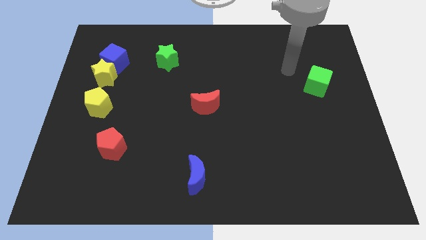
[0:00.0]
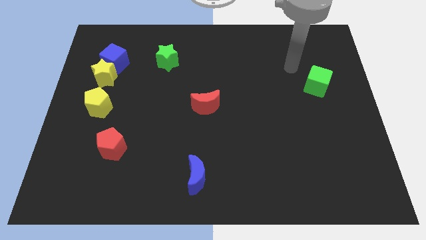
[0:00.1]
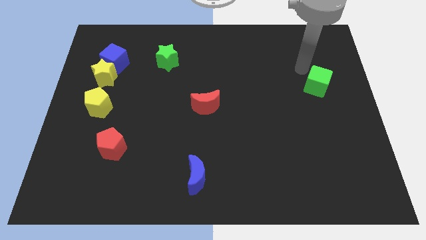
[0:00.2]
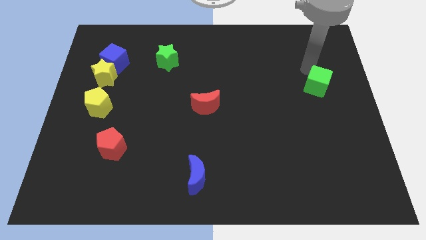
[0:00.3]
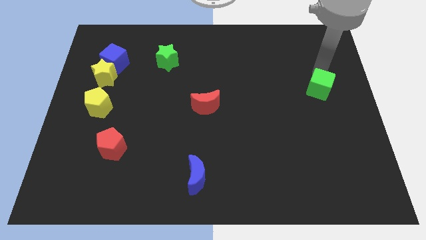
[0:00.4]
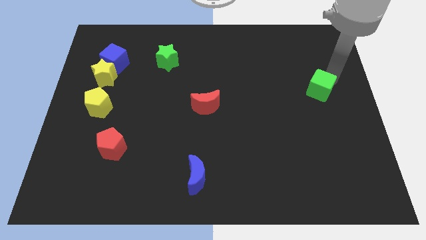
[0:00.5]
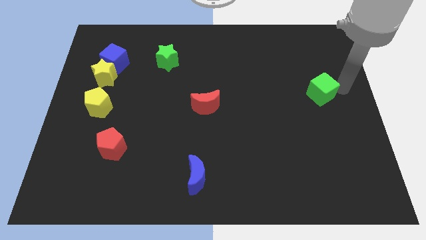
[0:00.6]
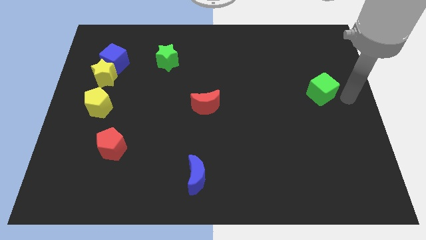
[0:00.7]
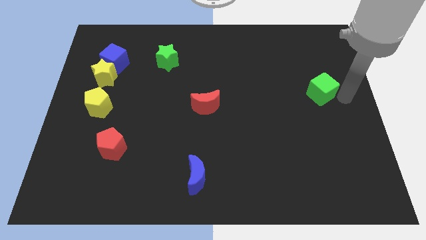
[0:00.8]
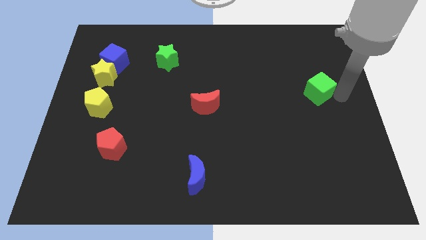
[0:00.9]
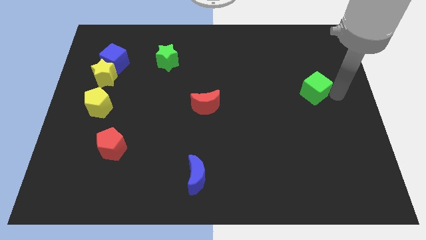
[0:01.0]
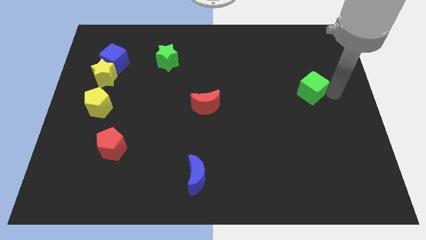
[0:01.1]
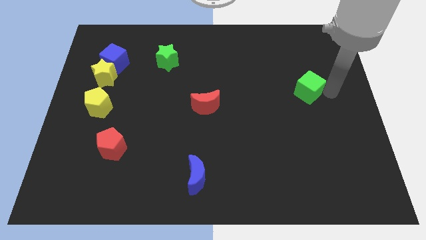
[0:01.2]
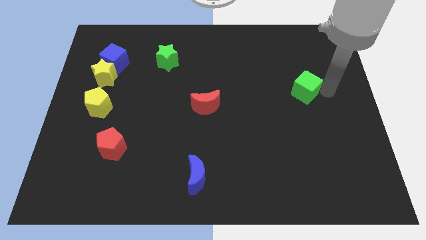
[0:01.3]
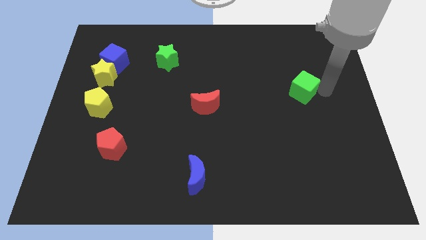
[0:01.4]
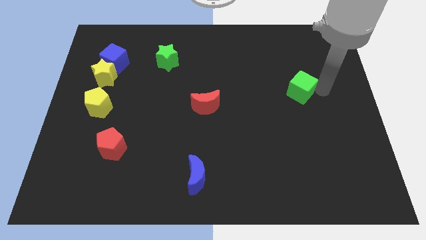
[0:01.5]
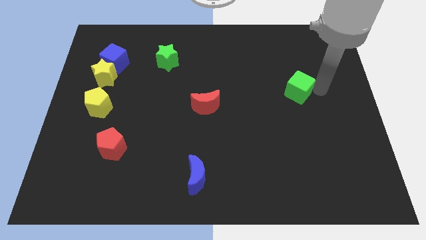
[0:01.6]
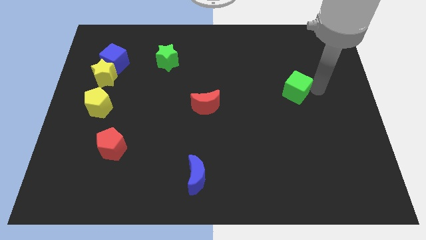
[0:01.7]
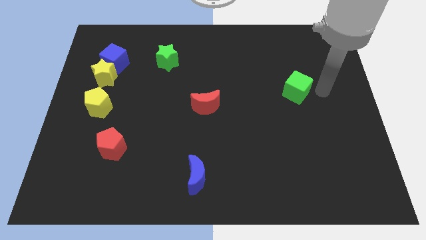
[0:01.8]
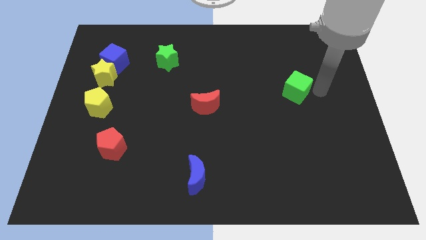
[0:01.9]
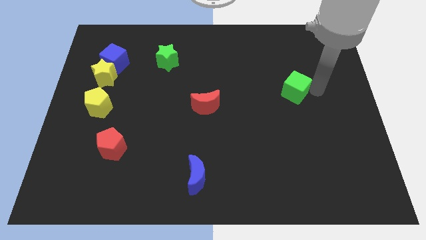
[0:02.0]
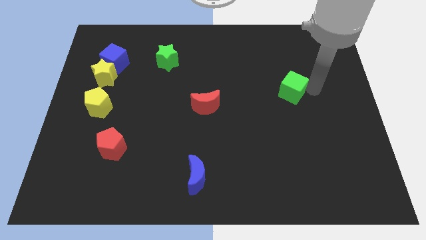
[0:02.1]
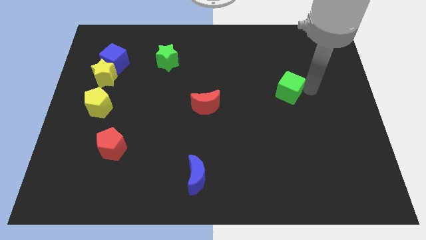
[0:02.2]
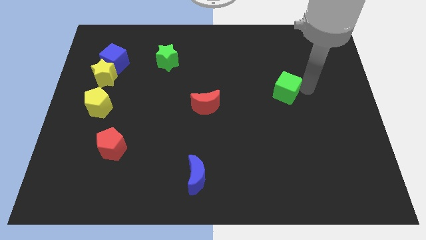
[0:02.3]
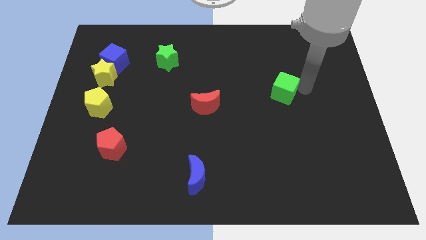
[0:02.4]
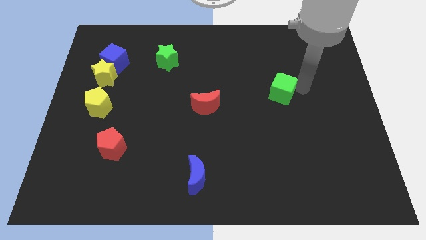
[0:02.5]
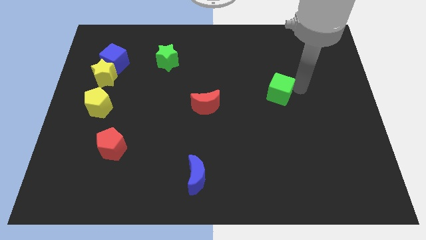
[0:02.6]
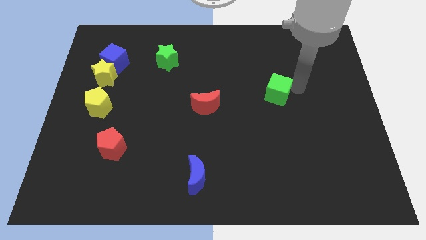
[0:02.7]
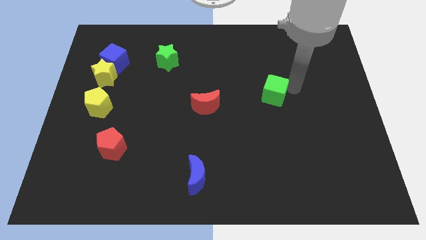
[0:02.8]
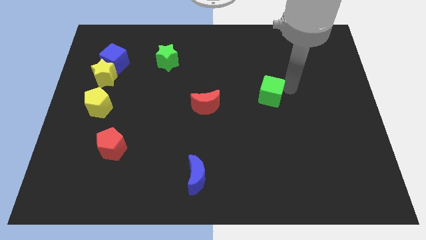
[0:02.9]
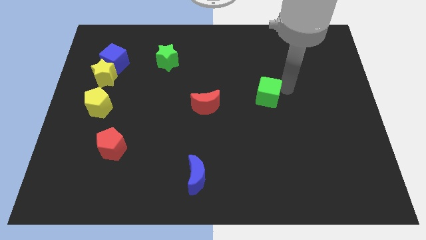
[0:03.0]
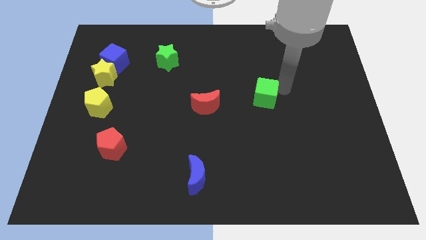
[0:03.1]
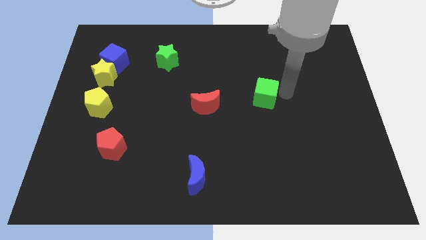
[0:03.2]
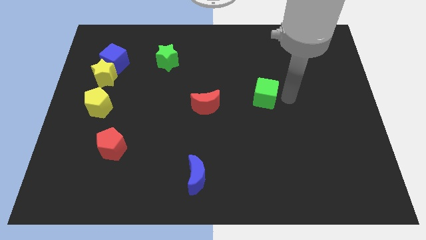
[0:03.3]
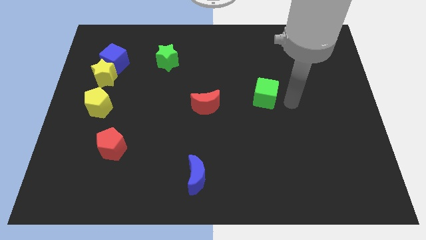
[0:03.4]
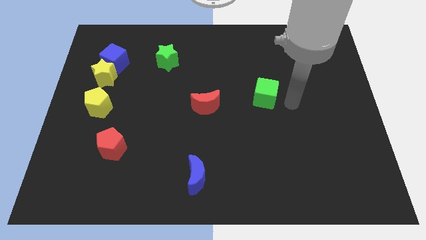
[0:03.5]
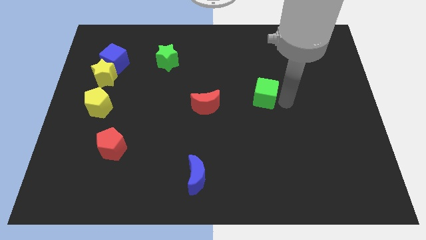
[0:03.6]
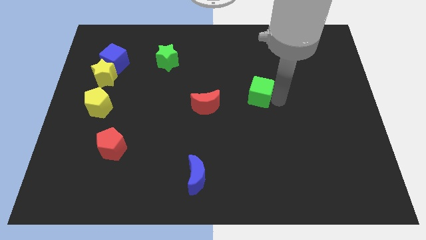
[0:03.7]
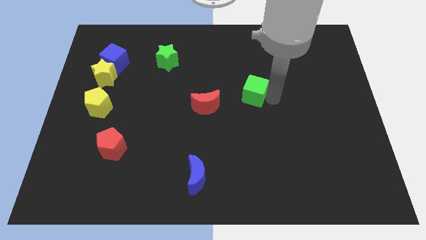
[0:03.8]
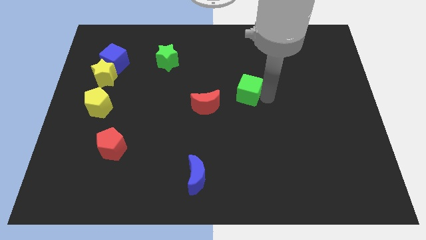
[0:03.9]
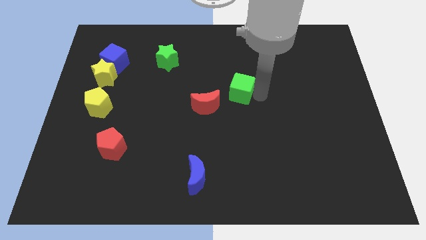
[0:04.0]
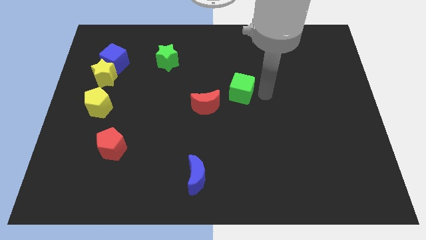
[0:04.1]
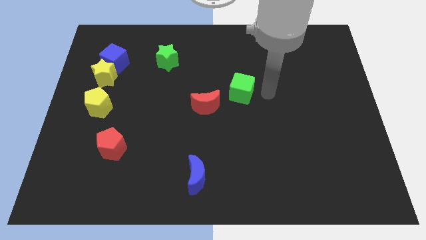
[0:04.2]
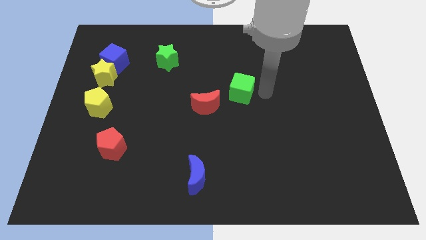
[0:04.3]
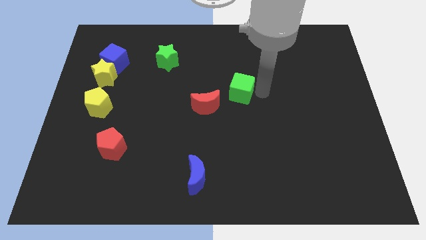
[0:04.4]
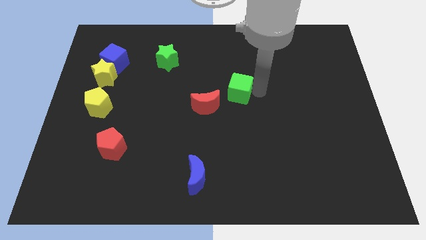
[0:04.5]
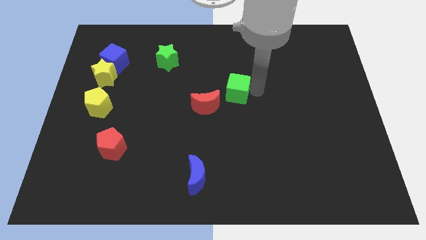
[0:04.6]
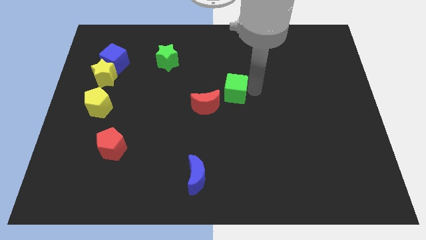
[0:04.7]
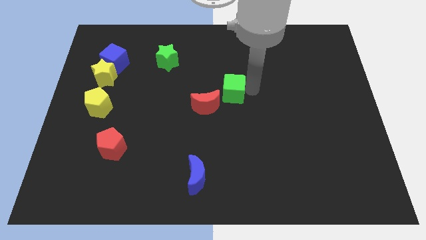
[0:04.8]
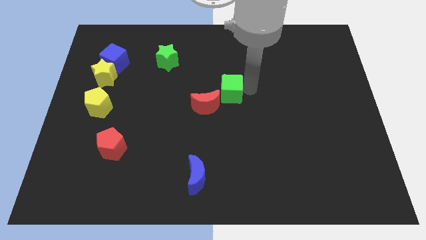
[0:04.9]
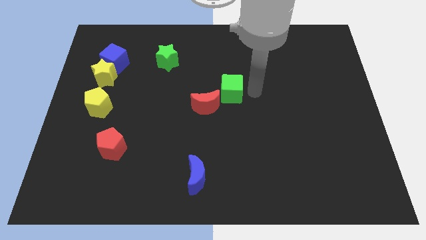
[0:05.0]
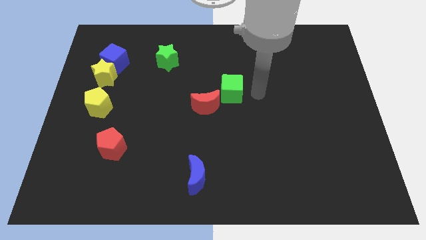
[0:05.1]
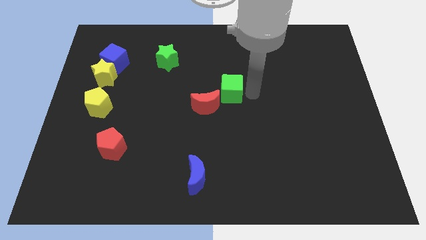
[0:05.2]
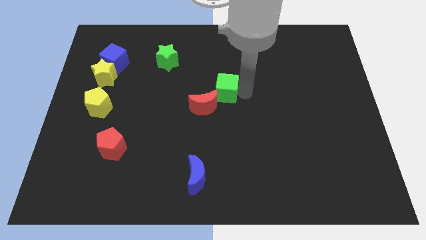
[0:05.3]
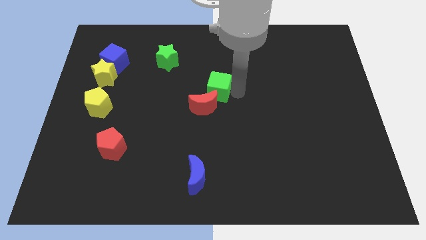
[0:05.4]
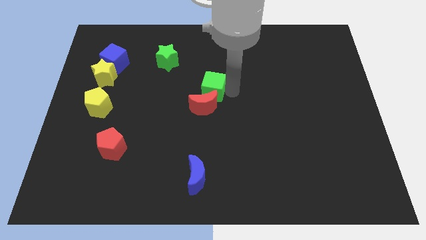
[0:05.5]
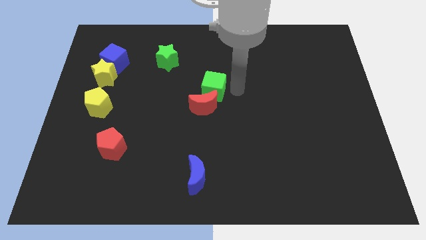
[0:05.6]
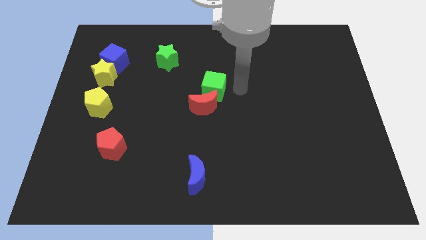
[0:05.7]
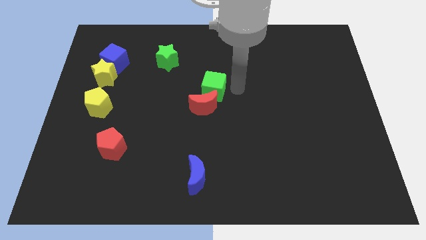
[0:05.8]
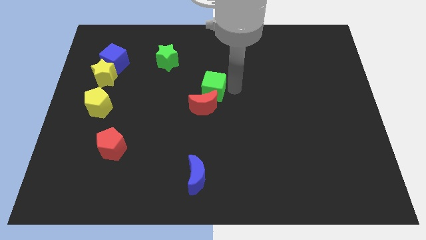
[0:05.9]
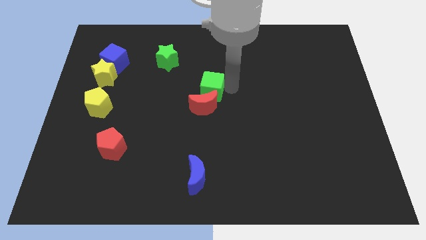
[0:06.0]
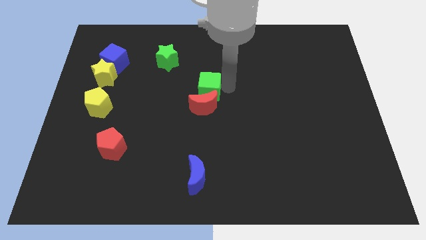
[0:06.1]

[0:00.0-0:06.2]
push the green cube to the top left side of the red moon
